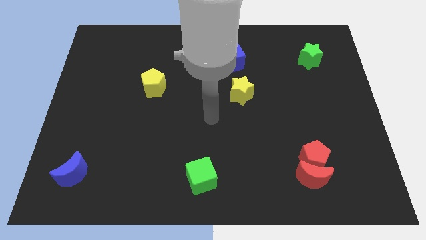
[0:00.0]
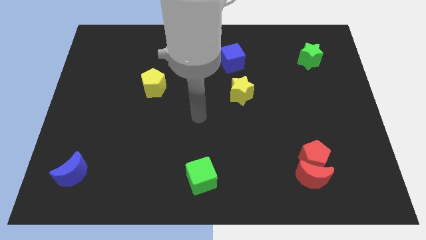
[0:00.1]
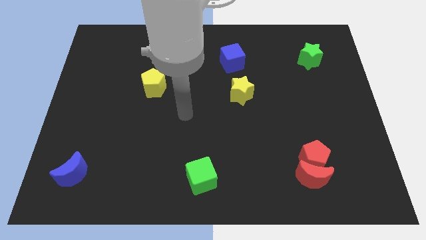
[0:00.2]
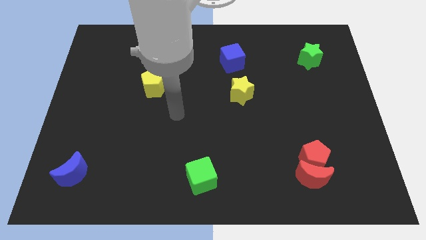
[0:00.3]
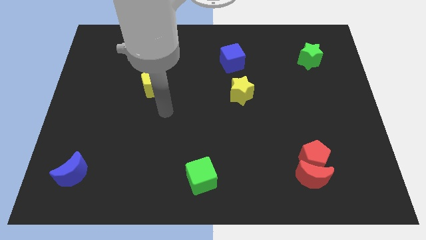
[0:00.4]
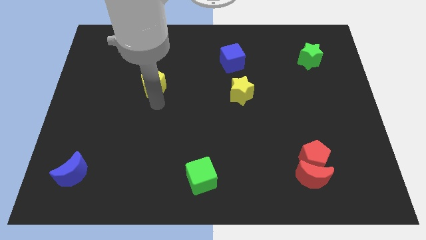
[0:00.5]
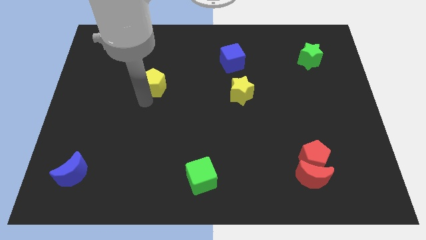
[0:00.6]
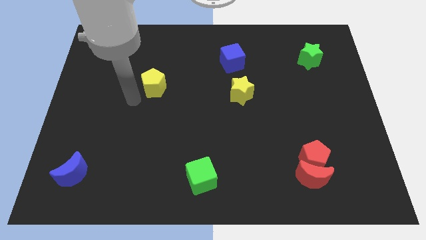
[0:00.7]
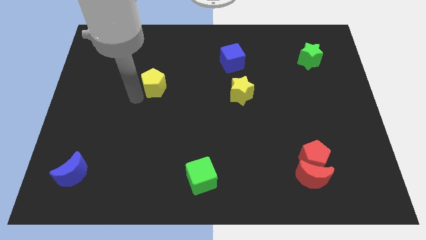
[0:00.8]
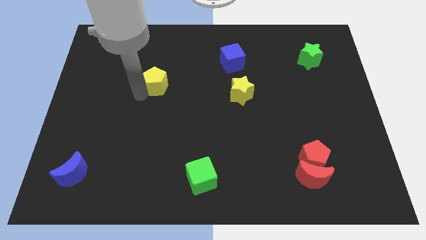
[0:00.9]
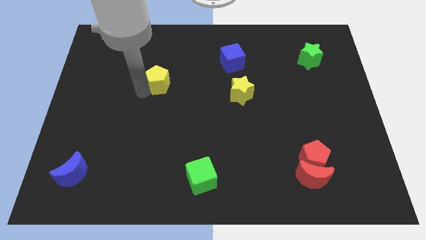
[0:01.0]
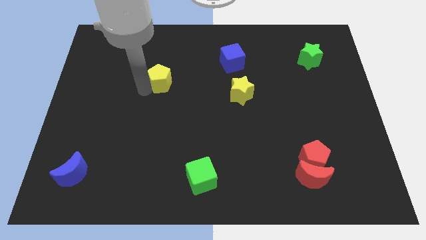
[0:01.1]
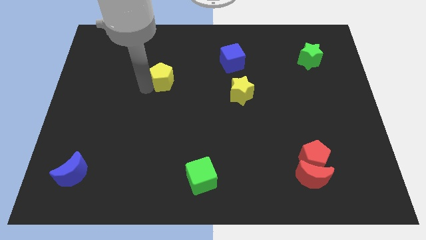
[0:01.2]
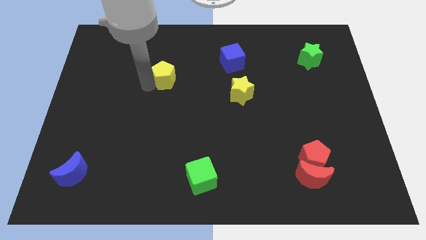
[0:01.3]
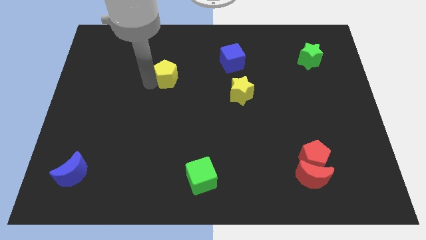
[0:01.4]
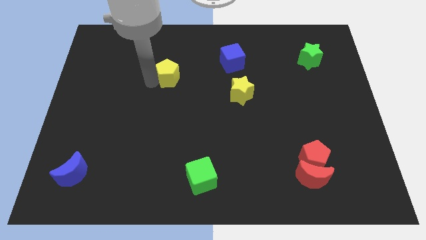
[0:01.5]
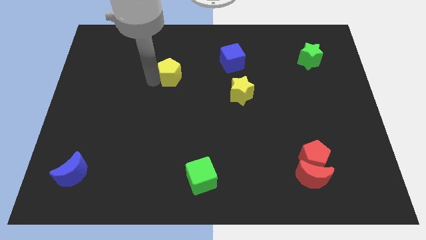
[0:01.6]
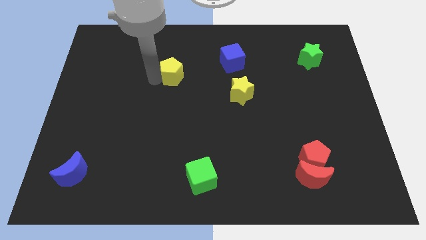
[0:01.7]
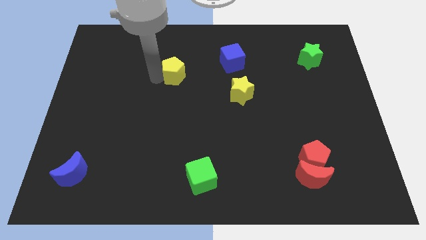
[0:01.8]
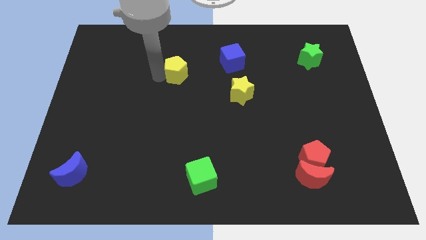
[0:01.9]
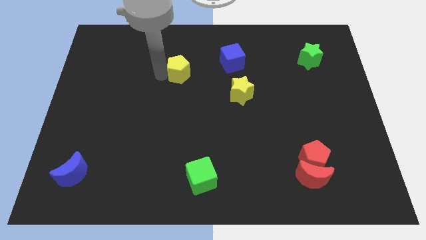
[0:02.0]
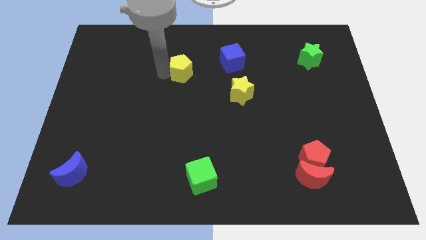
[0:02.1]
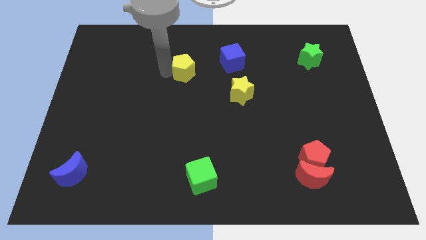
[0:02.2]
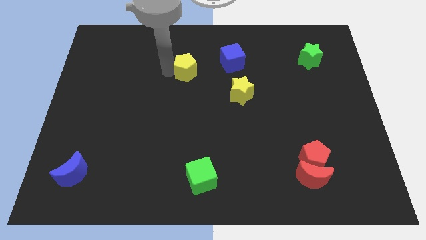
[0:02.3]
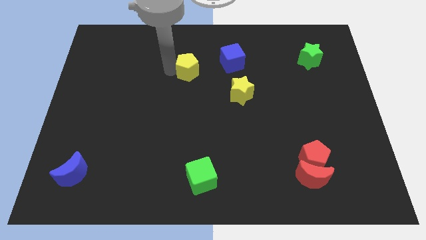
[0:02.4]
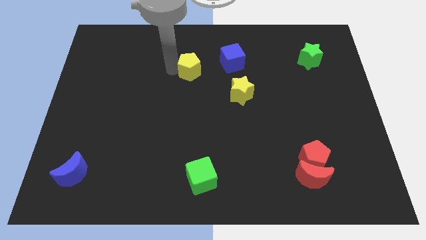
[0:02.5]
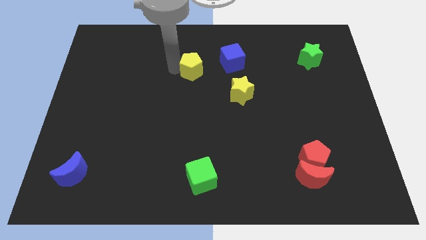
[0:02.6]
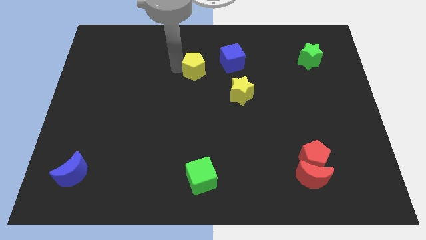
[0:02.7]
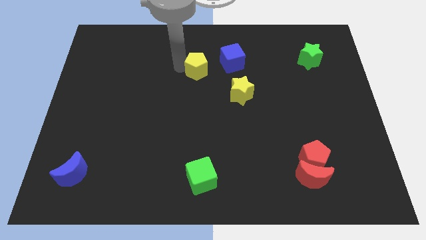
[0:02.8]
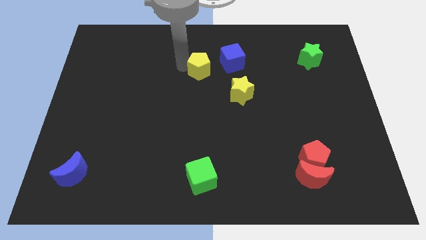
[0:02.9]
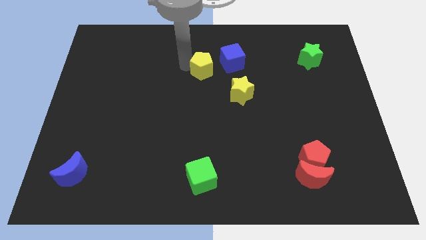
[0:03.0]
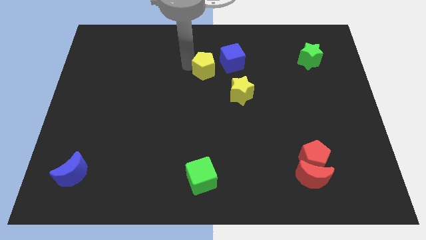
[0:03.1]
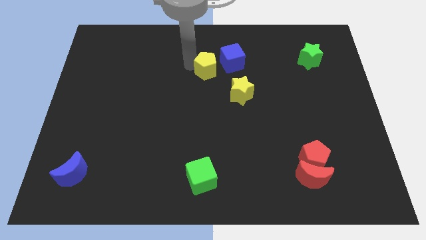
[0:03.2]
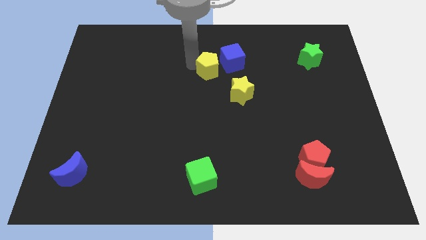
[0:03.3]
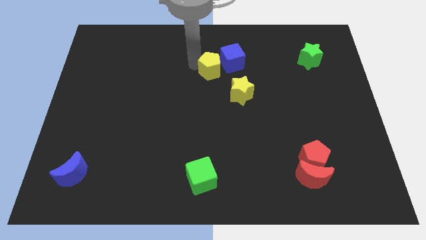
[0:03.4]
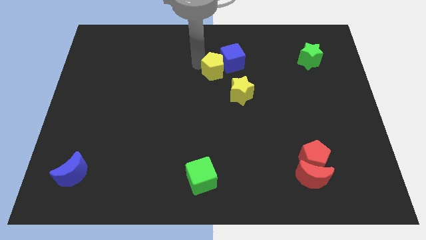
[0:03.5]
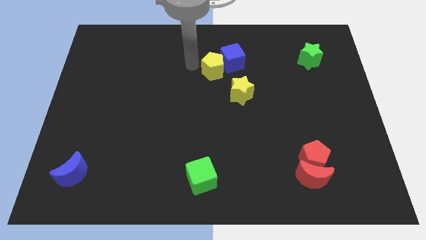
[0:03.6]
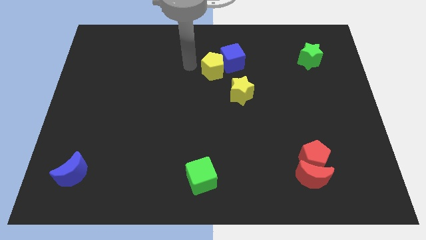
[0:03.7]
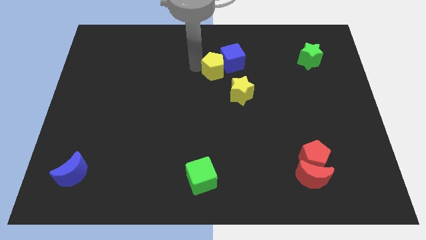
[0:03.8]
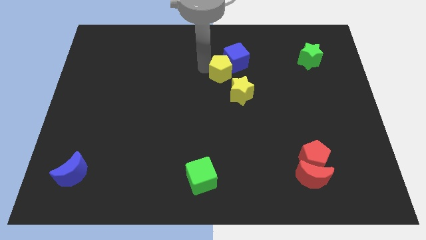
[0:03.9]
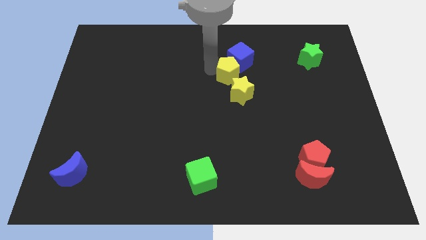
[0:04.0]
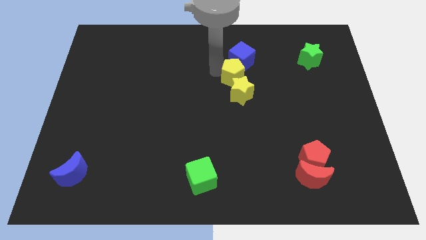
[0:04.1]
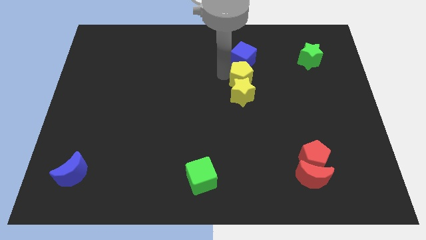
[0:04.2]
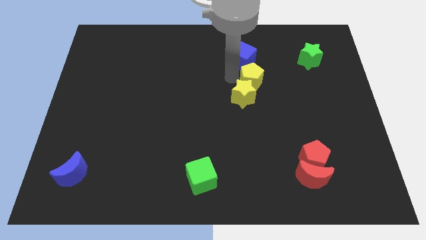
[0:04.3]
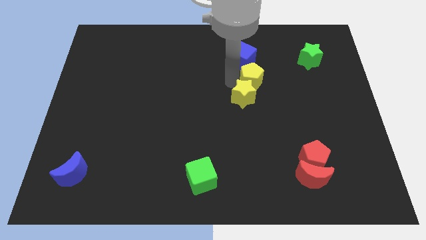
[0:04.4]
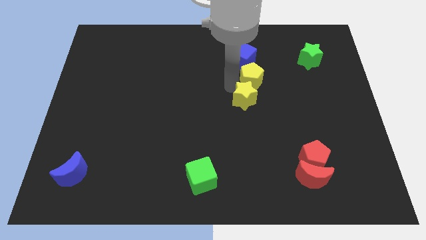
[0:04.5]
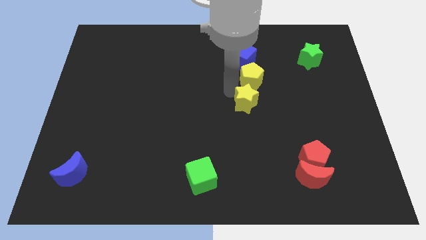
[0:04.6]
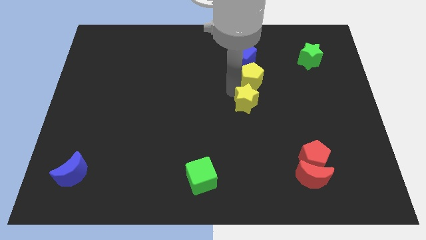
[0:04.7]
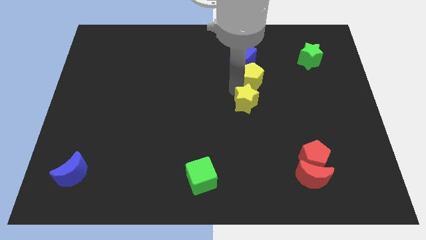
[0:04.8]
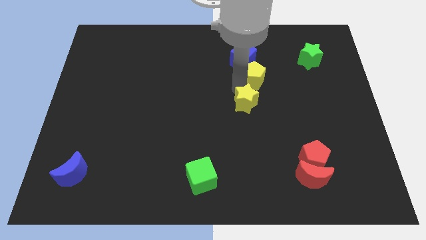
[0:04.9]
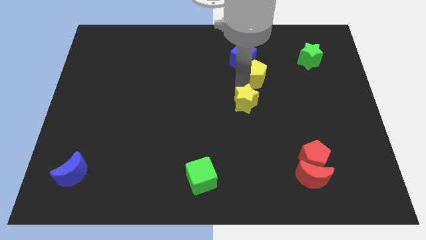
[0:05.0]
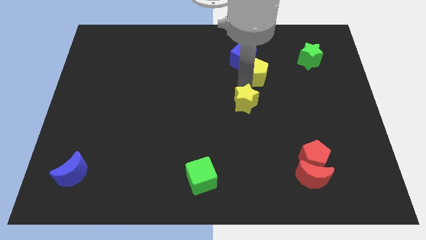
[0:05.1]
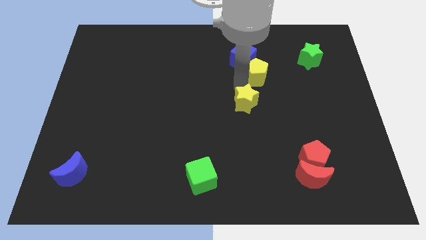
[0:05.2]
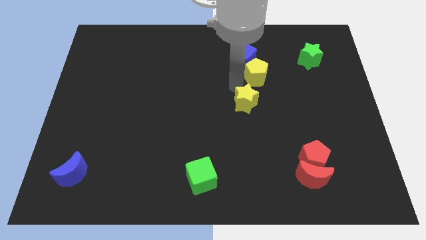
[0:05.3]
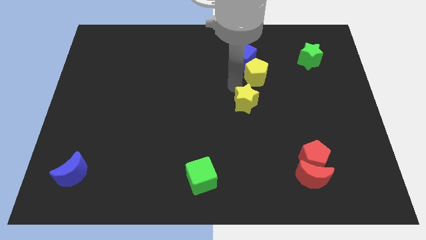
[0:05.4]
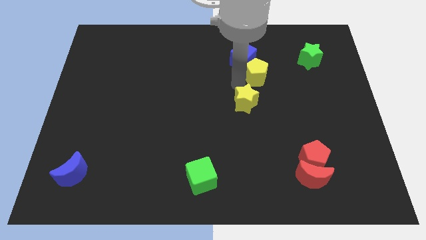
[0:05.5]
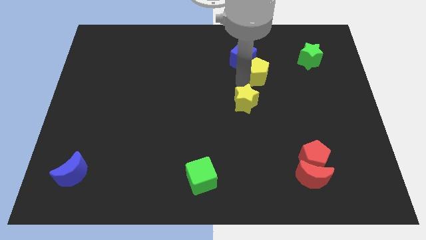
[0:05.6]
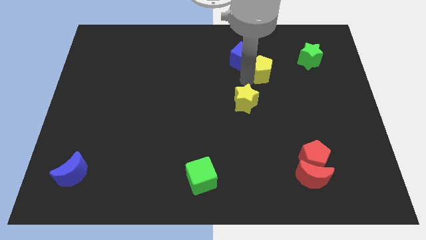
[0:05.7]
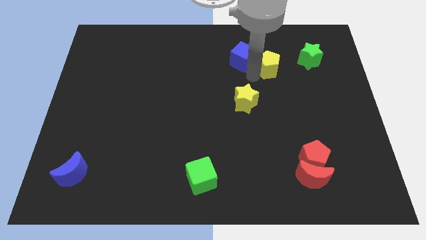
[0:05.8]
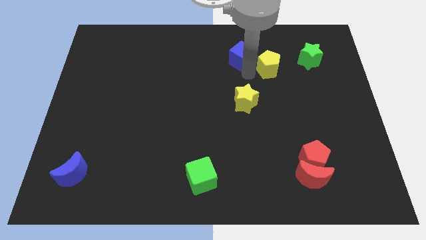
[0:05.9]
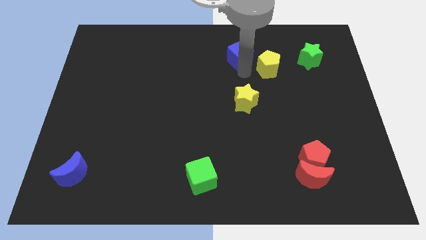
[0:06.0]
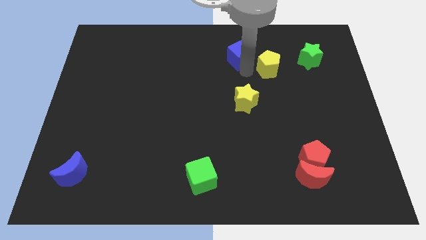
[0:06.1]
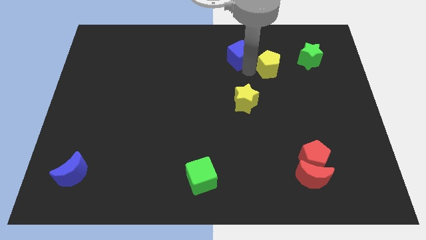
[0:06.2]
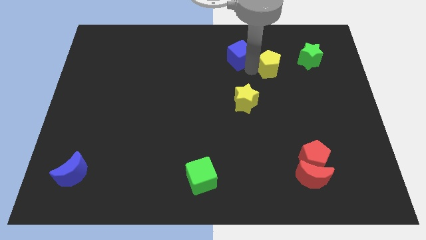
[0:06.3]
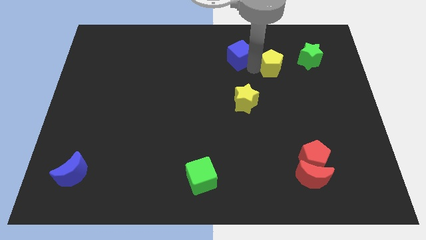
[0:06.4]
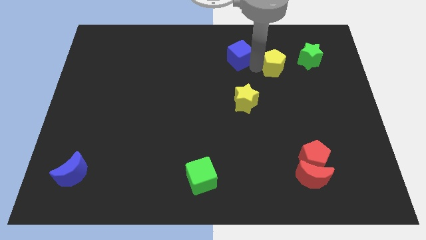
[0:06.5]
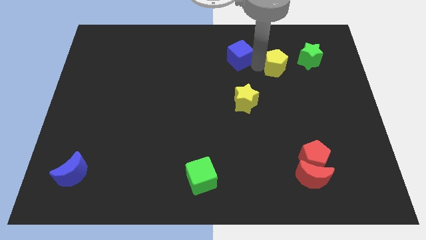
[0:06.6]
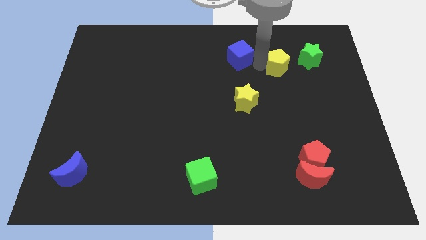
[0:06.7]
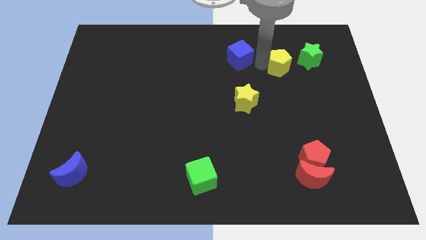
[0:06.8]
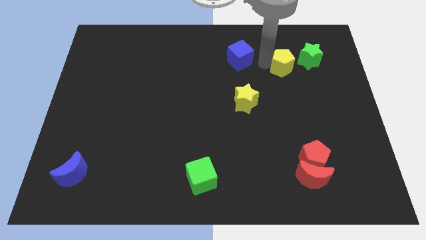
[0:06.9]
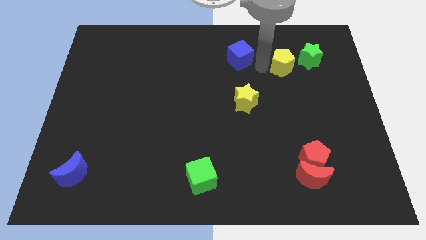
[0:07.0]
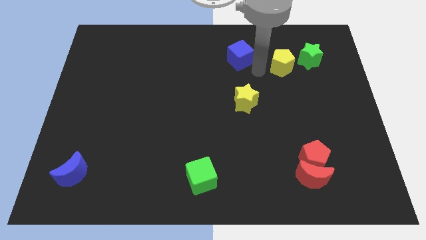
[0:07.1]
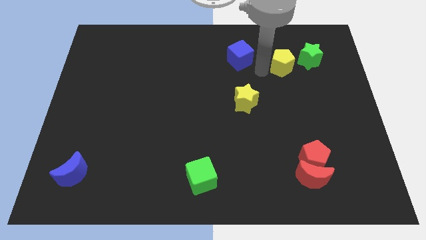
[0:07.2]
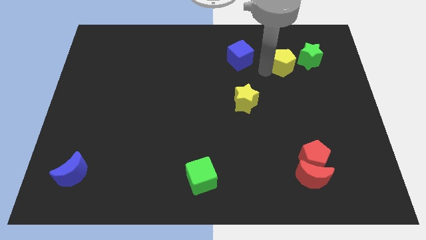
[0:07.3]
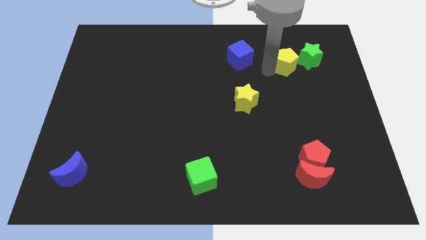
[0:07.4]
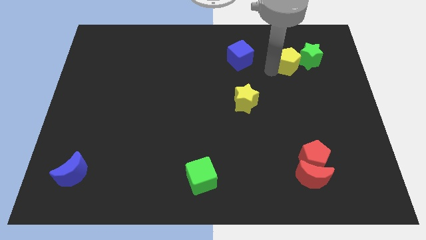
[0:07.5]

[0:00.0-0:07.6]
push the yellow pentagon close to the green star

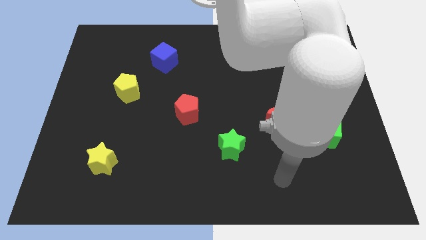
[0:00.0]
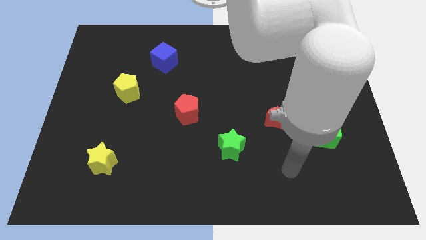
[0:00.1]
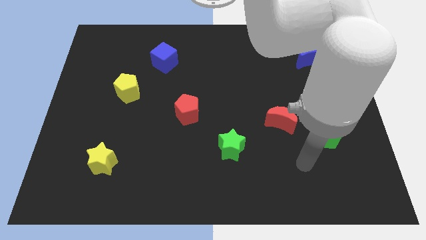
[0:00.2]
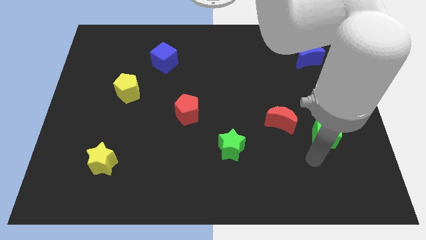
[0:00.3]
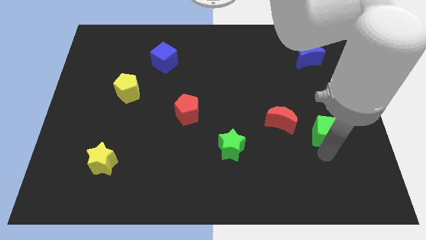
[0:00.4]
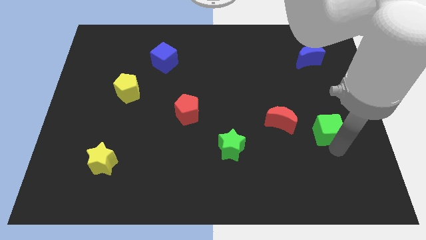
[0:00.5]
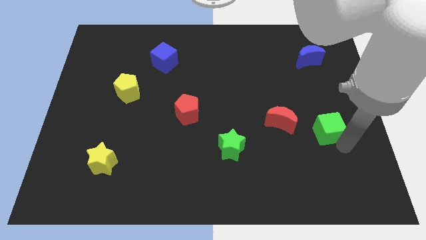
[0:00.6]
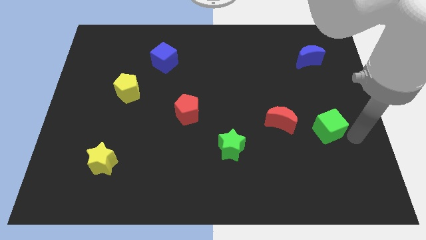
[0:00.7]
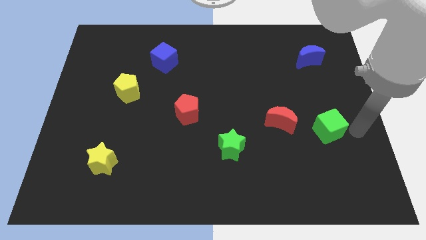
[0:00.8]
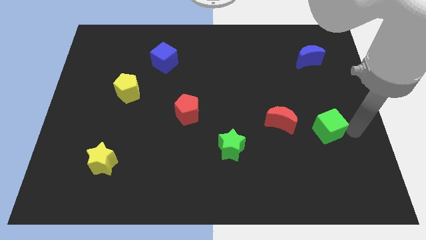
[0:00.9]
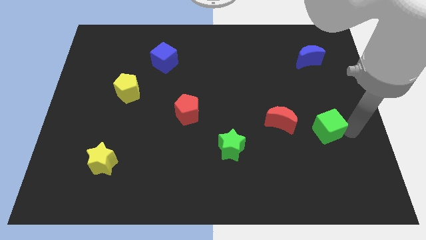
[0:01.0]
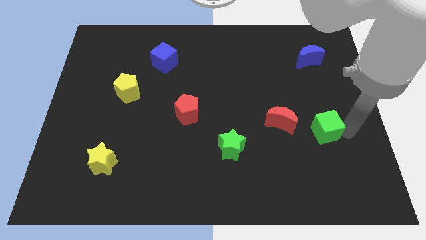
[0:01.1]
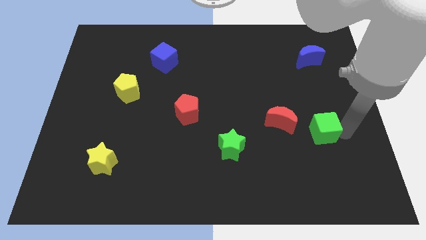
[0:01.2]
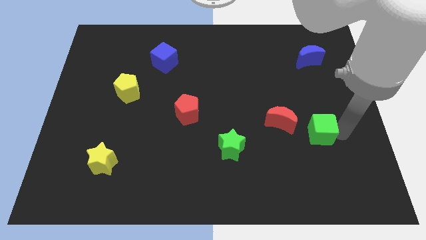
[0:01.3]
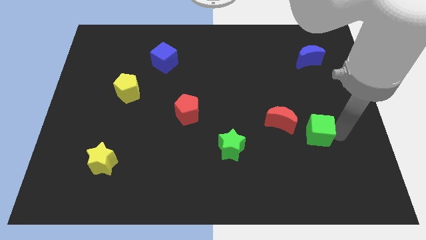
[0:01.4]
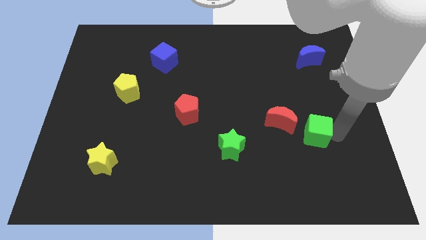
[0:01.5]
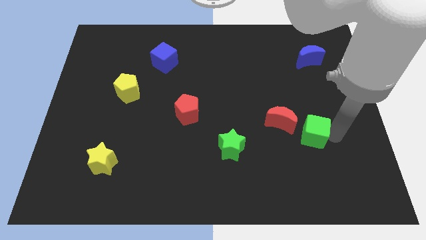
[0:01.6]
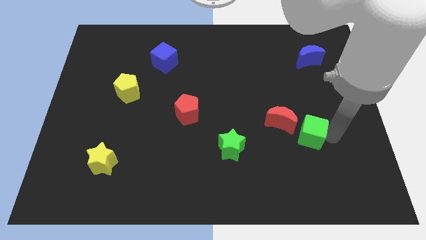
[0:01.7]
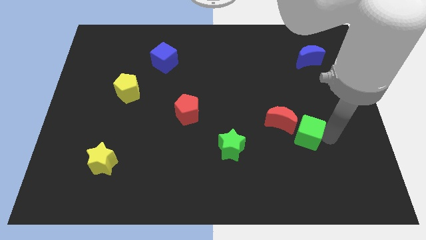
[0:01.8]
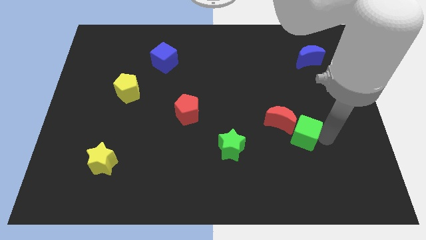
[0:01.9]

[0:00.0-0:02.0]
slide the green cube to the red moon
